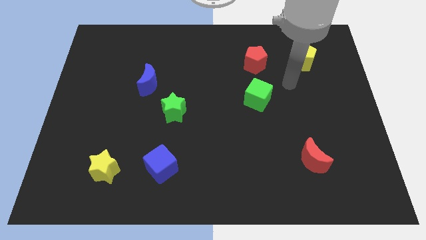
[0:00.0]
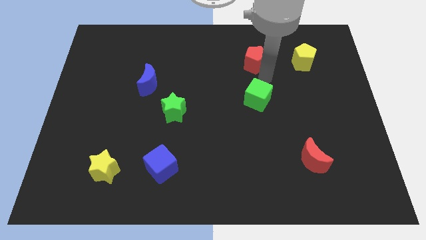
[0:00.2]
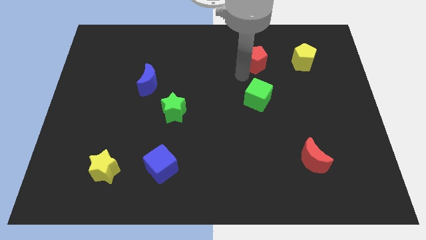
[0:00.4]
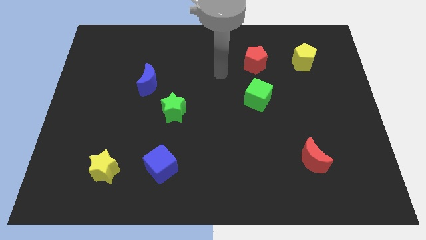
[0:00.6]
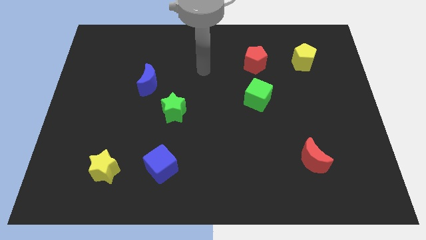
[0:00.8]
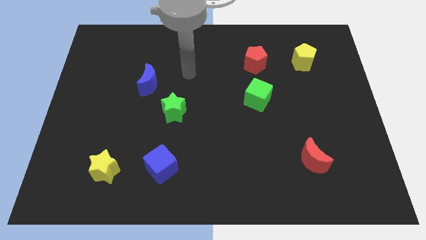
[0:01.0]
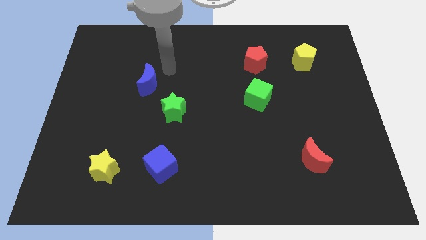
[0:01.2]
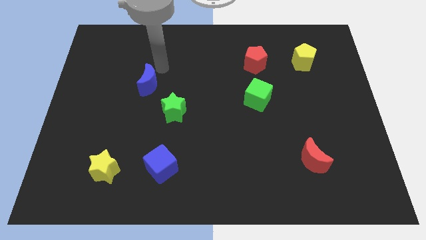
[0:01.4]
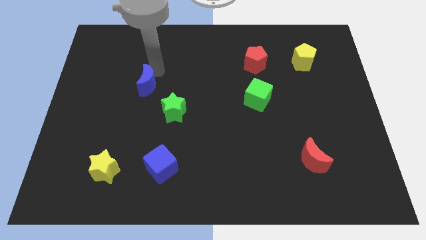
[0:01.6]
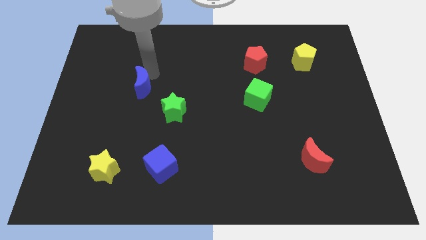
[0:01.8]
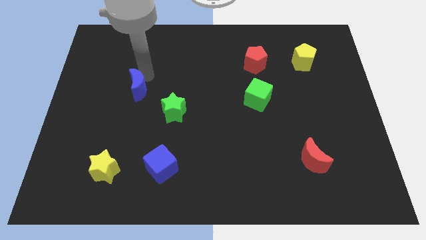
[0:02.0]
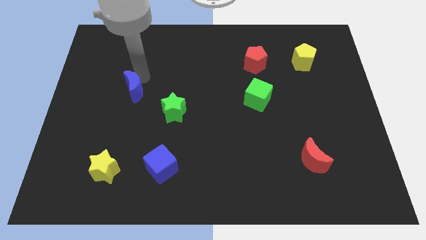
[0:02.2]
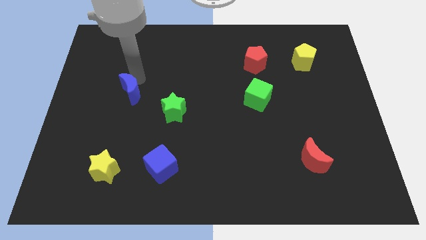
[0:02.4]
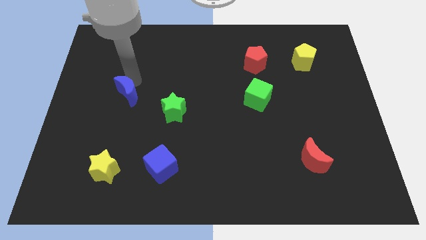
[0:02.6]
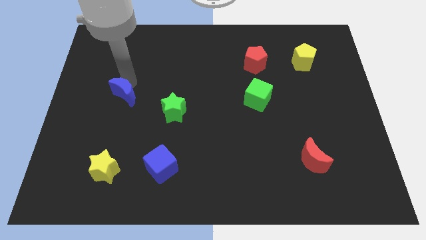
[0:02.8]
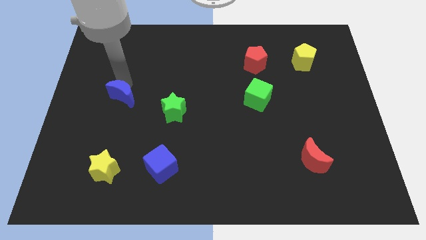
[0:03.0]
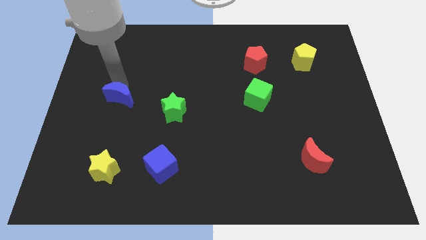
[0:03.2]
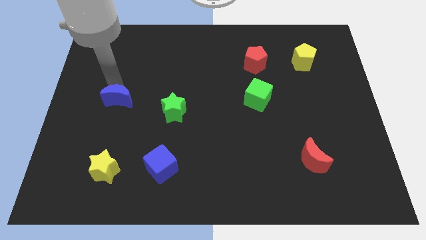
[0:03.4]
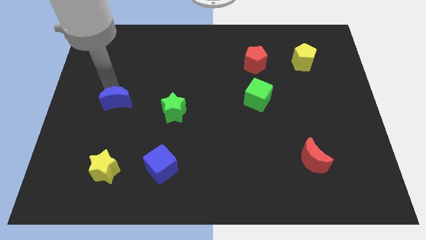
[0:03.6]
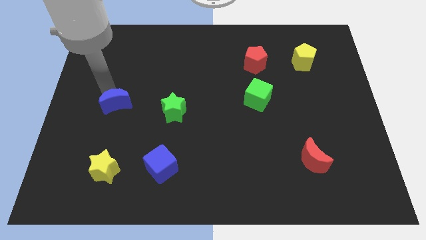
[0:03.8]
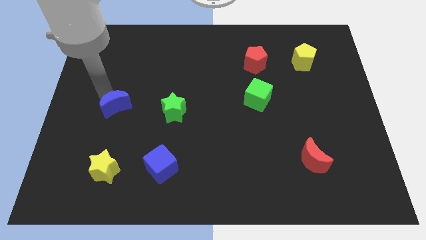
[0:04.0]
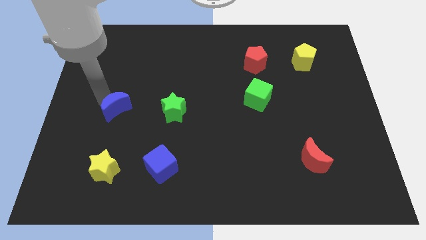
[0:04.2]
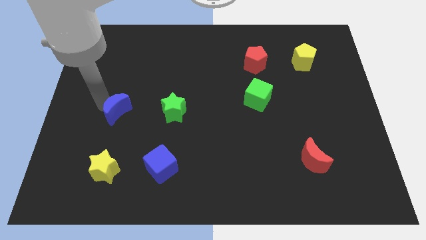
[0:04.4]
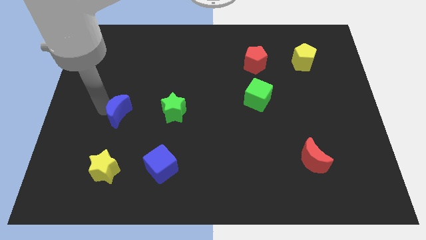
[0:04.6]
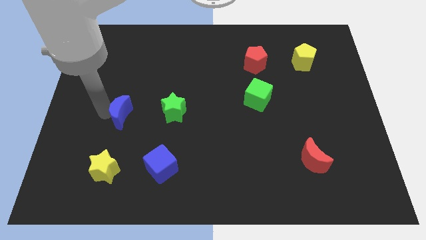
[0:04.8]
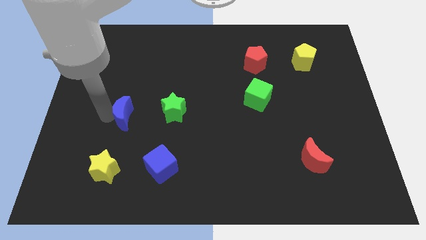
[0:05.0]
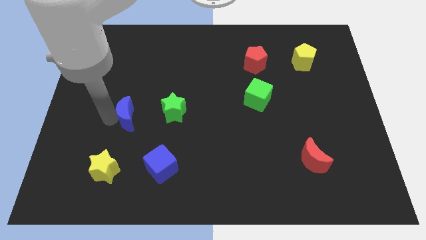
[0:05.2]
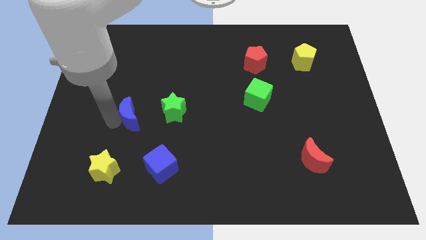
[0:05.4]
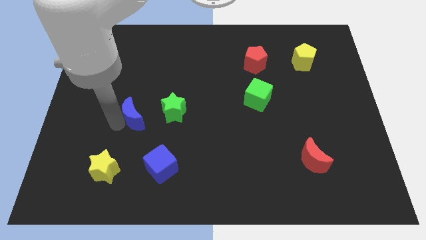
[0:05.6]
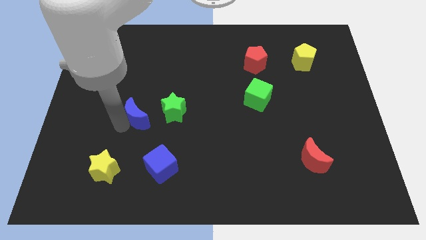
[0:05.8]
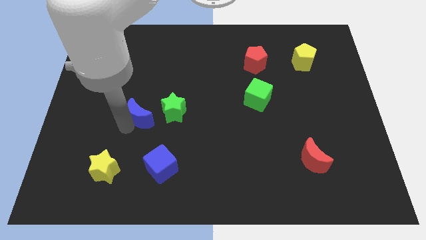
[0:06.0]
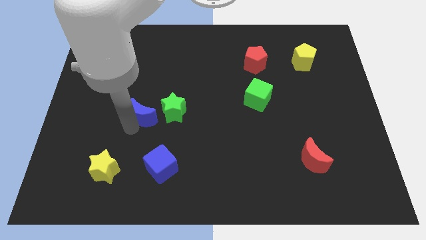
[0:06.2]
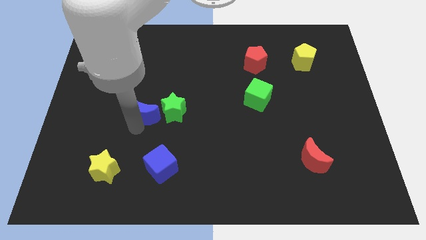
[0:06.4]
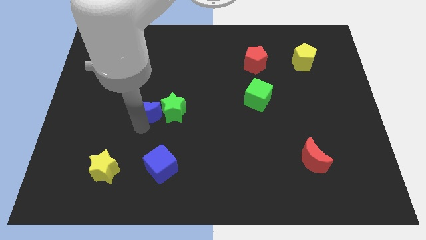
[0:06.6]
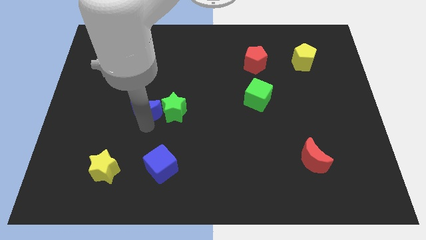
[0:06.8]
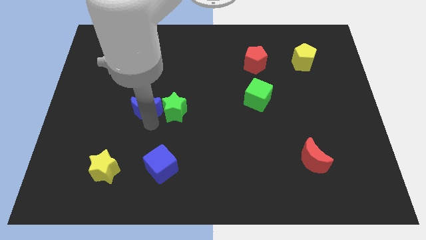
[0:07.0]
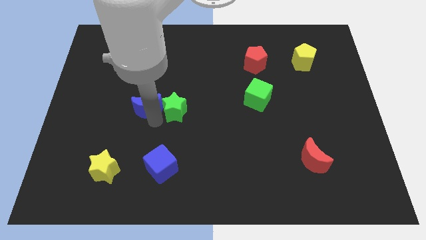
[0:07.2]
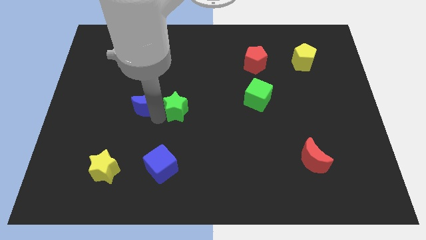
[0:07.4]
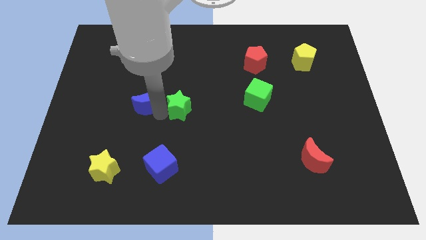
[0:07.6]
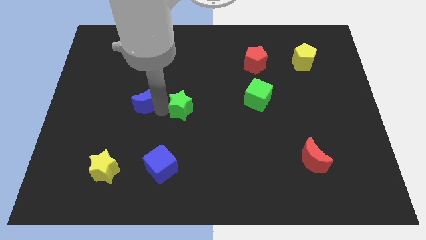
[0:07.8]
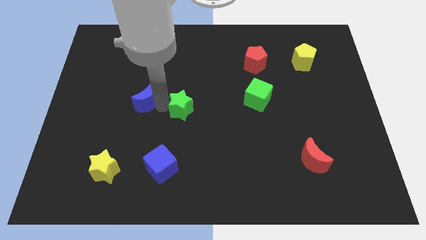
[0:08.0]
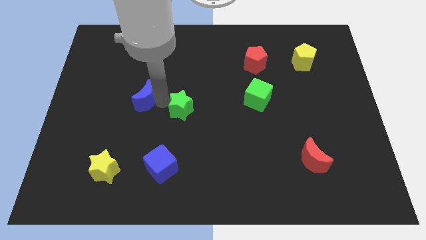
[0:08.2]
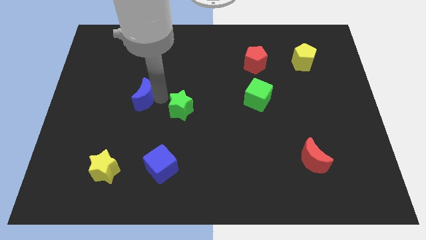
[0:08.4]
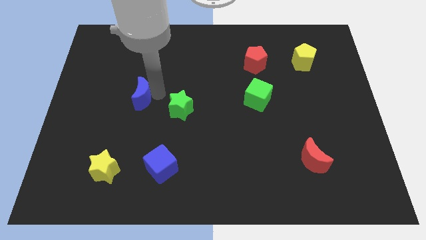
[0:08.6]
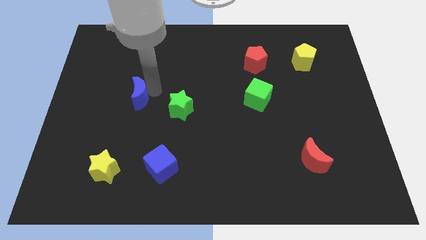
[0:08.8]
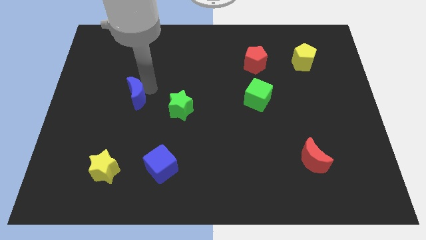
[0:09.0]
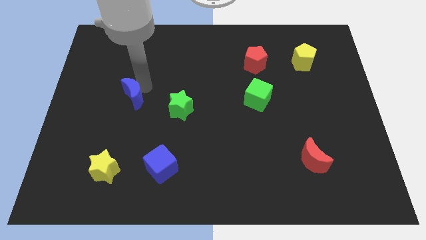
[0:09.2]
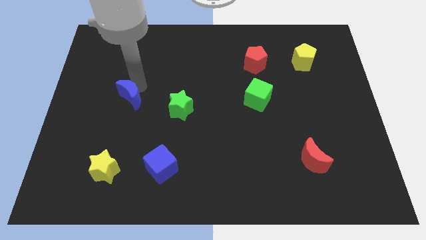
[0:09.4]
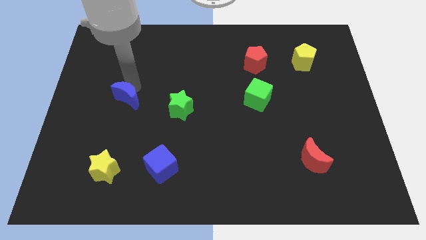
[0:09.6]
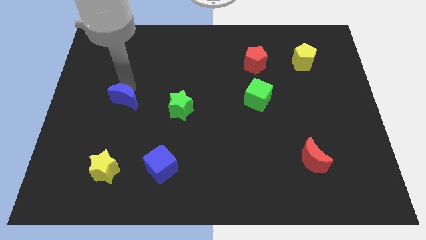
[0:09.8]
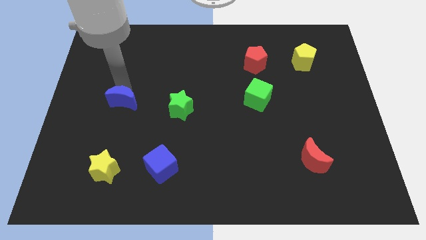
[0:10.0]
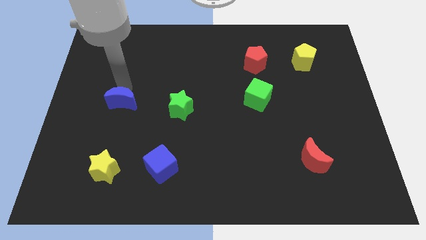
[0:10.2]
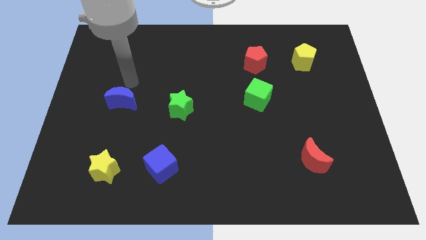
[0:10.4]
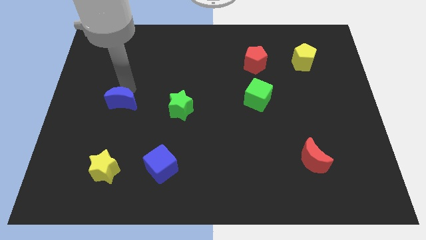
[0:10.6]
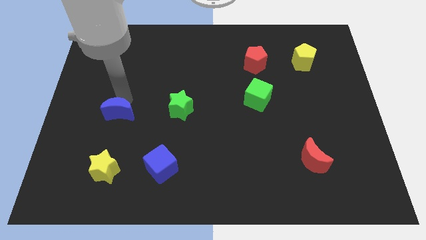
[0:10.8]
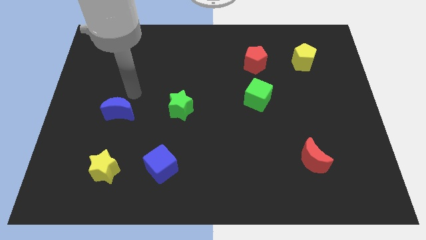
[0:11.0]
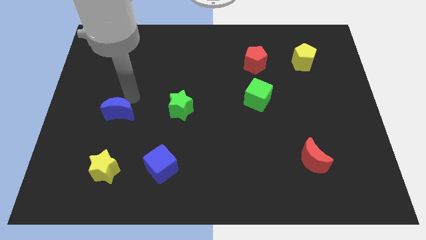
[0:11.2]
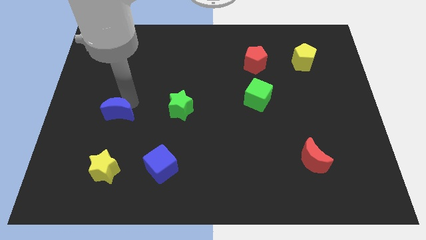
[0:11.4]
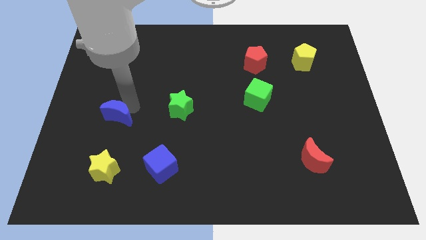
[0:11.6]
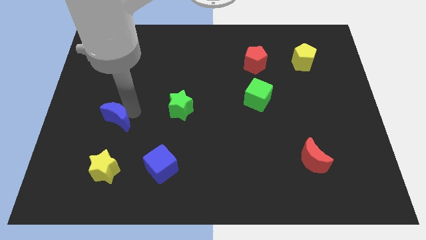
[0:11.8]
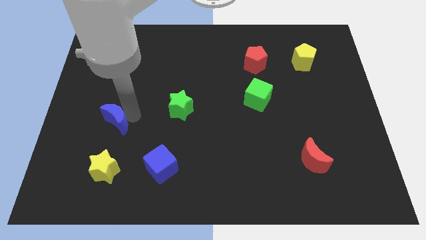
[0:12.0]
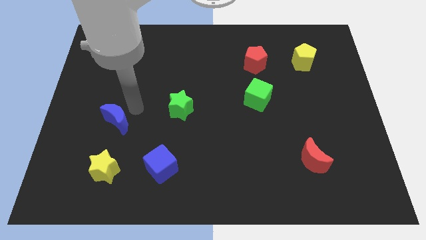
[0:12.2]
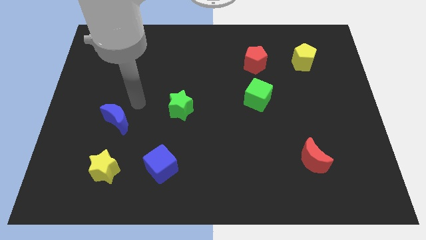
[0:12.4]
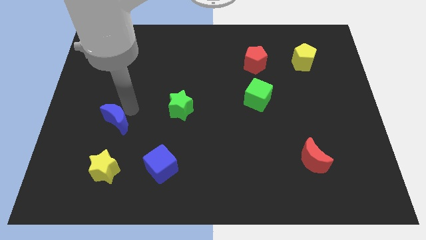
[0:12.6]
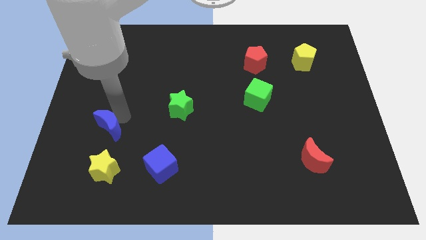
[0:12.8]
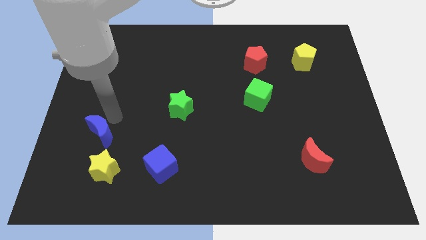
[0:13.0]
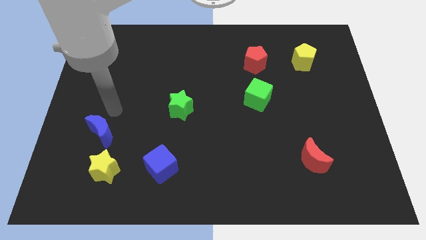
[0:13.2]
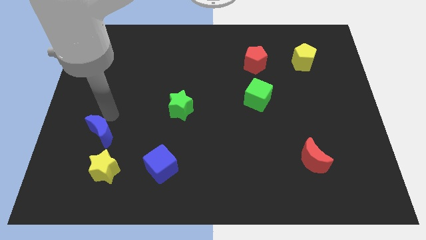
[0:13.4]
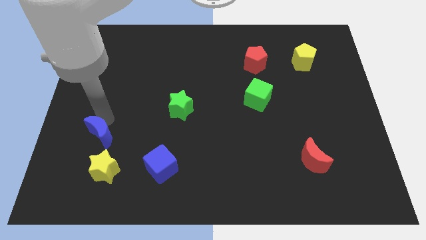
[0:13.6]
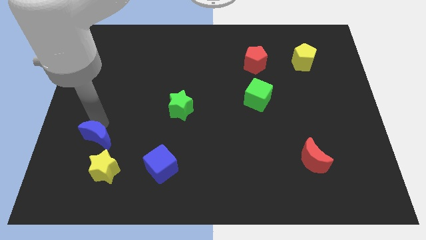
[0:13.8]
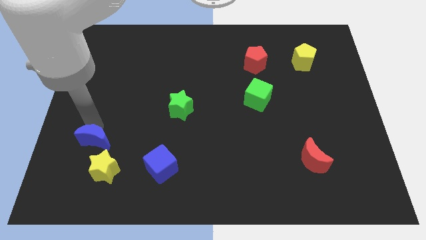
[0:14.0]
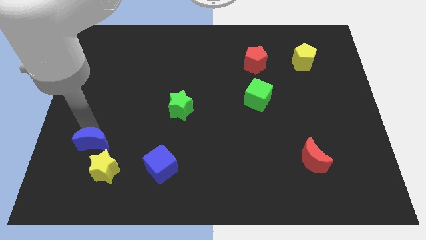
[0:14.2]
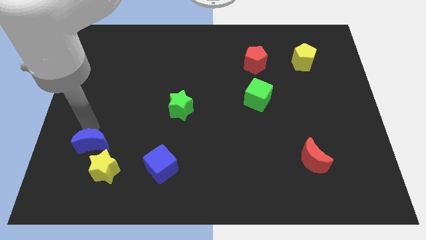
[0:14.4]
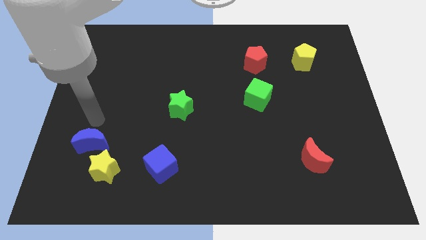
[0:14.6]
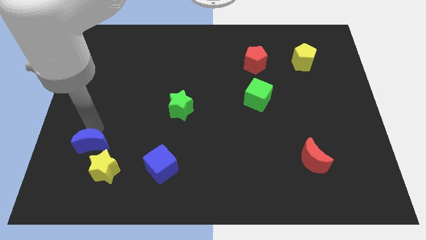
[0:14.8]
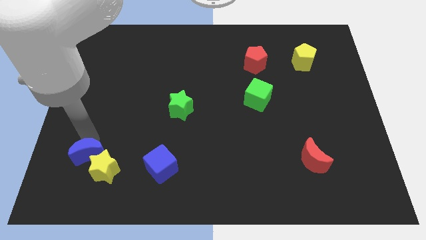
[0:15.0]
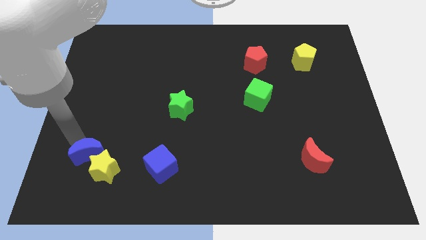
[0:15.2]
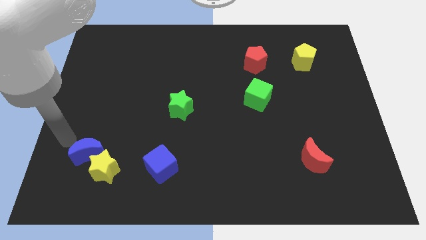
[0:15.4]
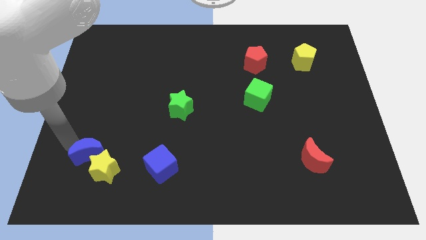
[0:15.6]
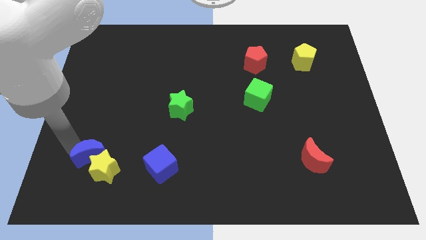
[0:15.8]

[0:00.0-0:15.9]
put the blue moon left of the blue cube
